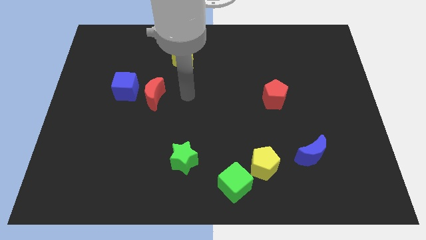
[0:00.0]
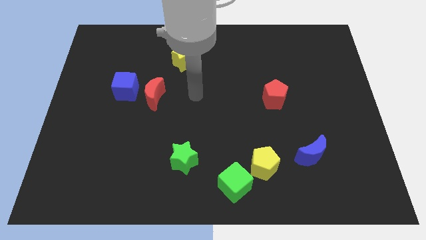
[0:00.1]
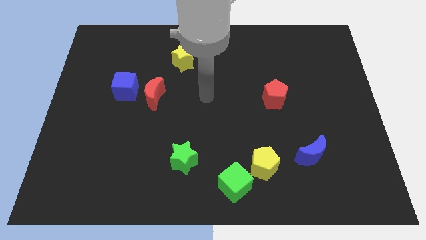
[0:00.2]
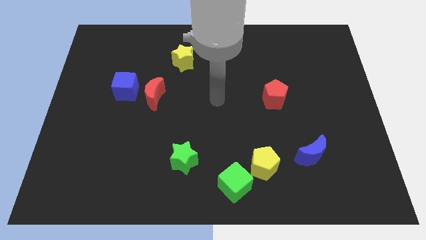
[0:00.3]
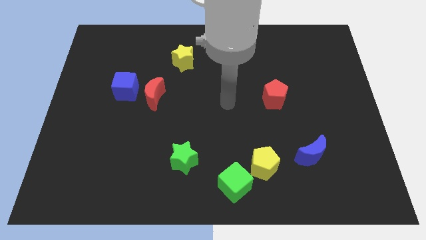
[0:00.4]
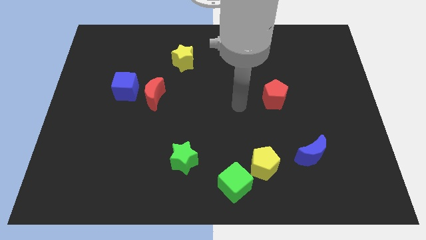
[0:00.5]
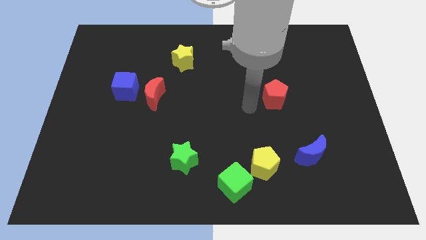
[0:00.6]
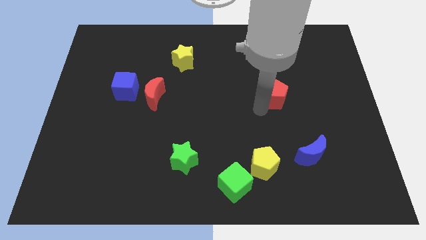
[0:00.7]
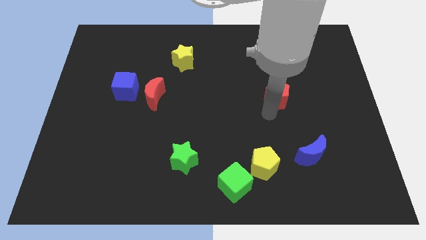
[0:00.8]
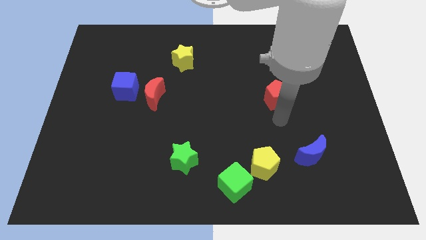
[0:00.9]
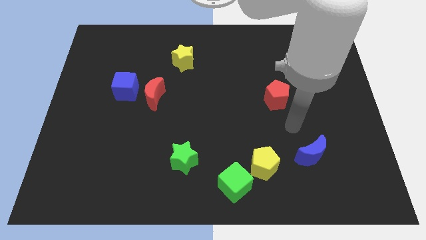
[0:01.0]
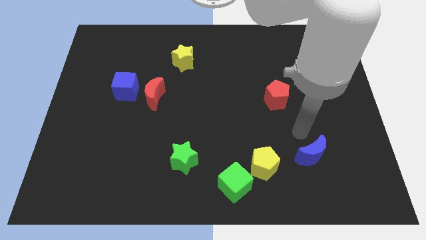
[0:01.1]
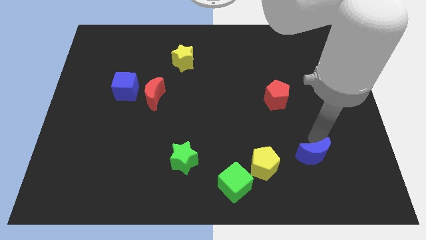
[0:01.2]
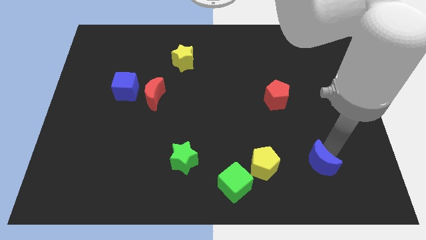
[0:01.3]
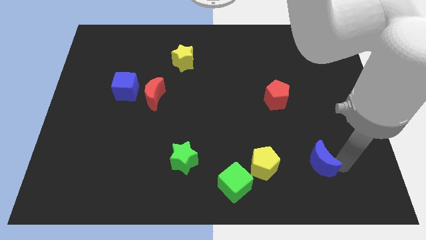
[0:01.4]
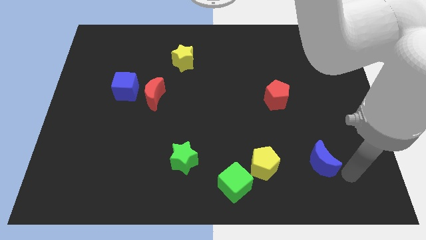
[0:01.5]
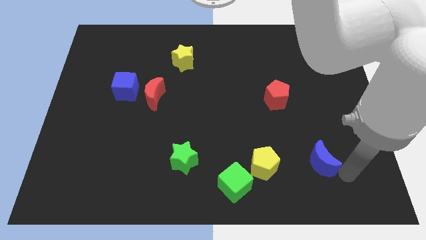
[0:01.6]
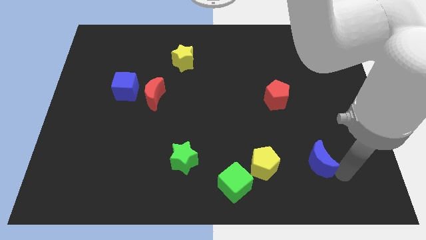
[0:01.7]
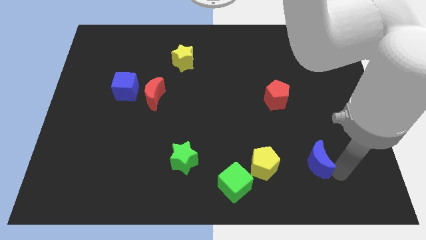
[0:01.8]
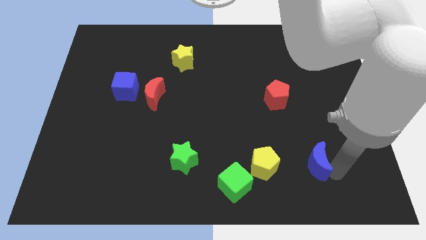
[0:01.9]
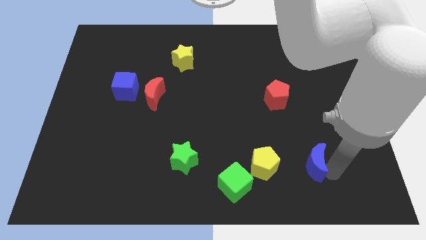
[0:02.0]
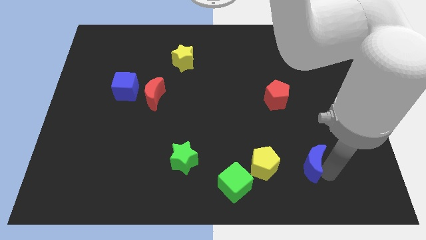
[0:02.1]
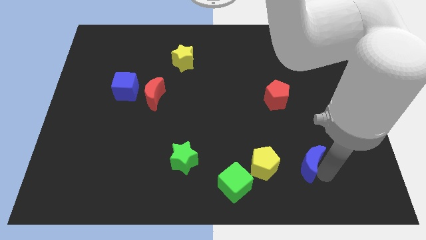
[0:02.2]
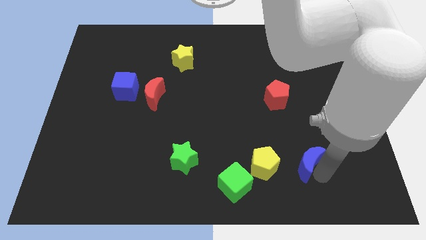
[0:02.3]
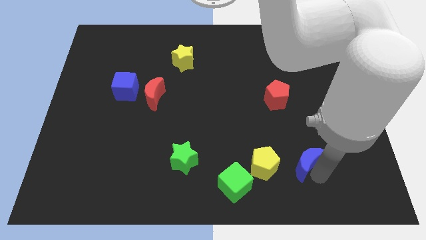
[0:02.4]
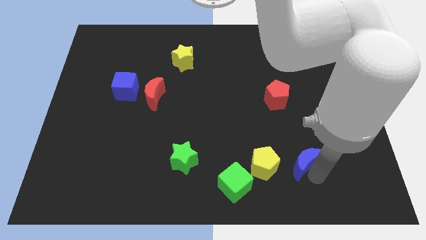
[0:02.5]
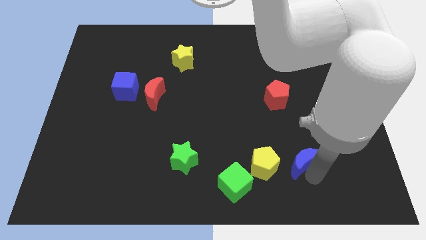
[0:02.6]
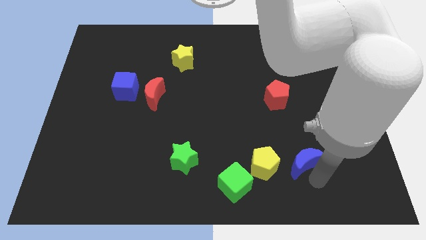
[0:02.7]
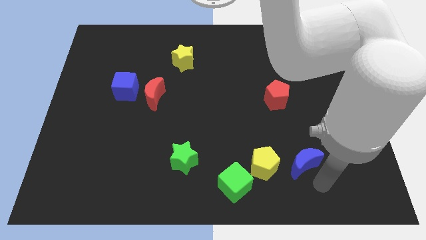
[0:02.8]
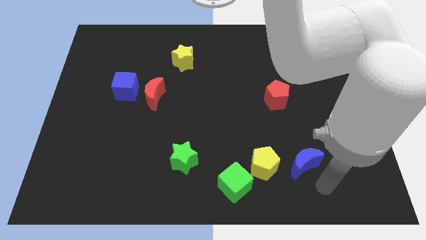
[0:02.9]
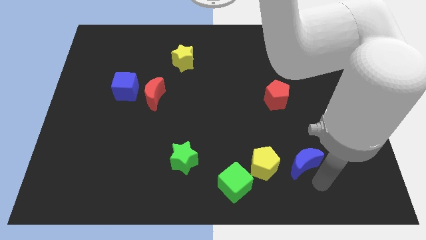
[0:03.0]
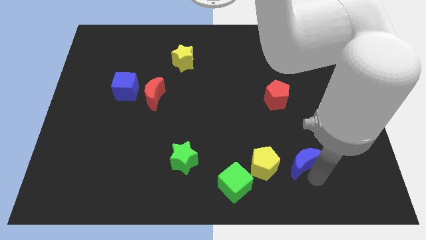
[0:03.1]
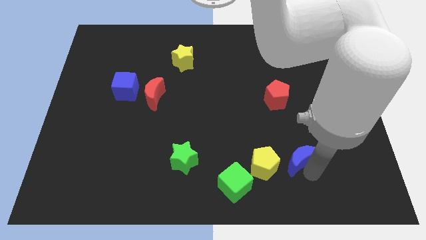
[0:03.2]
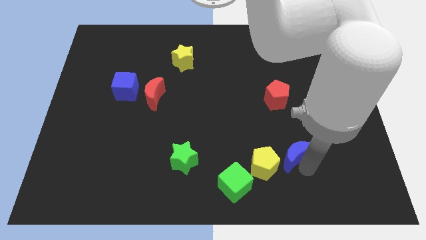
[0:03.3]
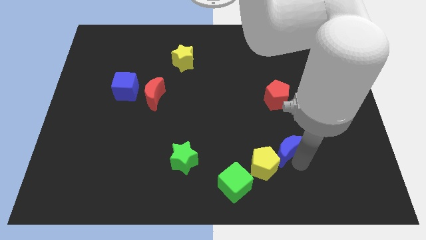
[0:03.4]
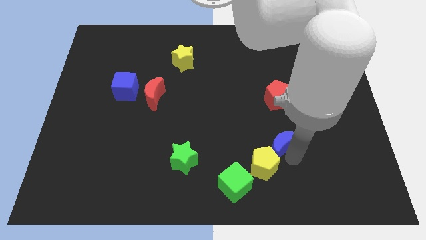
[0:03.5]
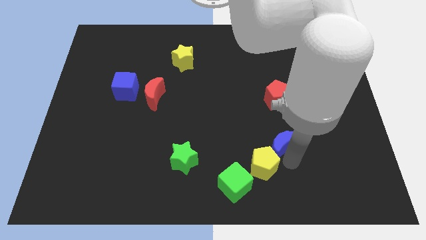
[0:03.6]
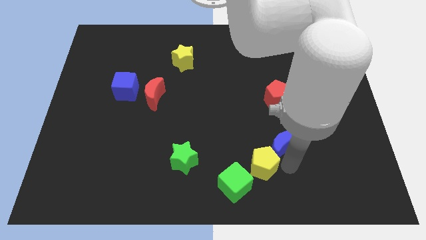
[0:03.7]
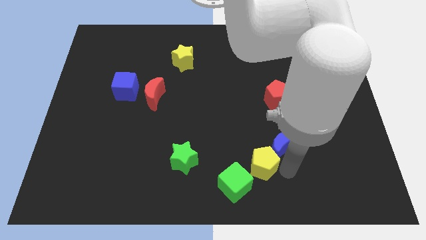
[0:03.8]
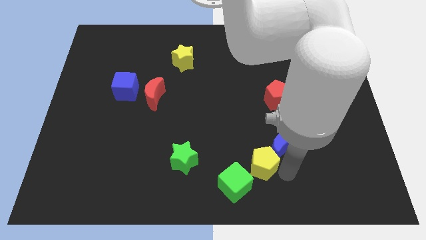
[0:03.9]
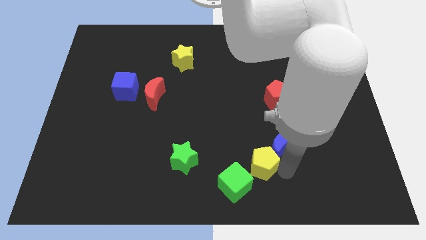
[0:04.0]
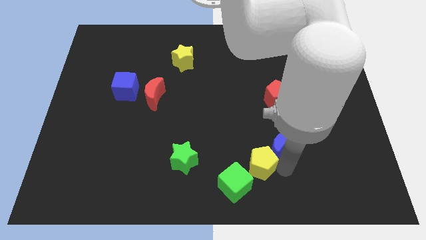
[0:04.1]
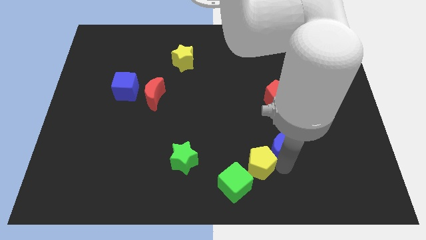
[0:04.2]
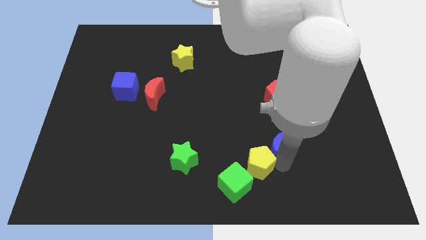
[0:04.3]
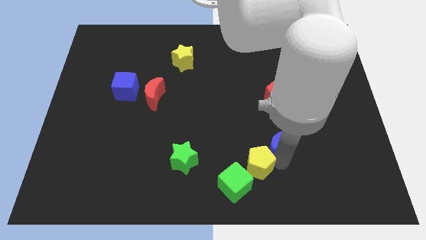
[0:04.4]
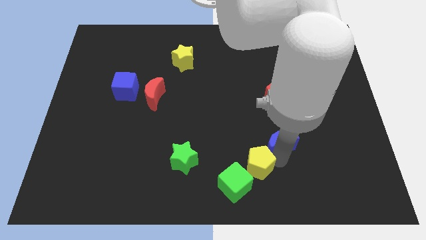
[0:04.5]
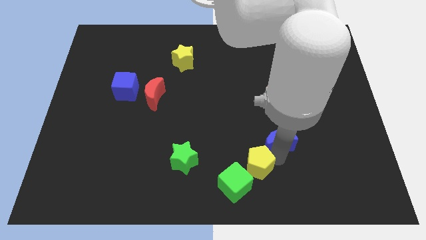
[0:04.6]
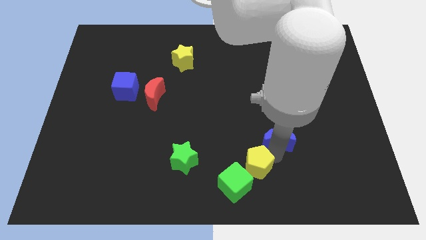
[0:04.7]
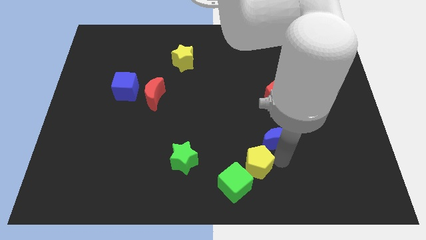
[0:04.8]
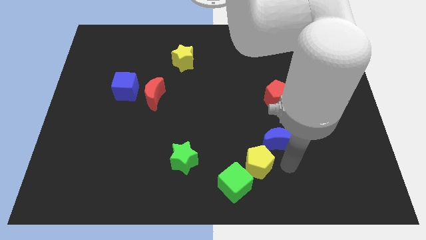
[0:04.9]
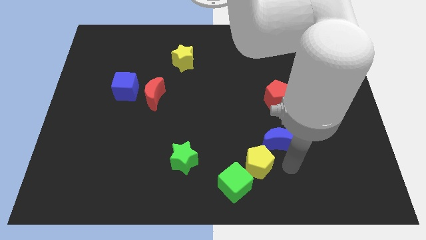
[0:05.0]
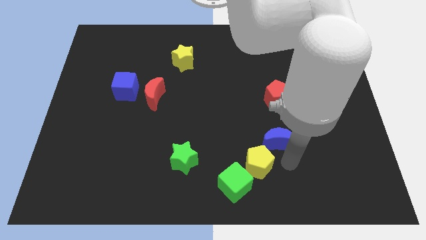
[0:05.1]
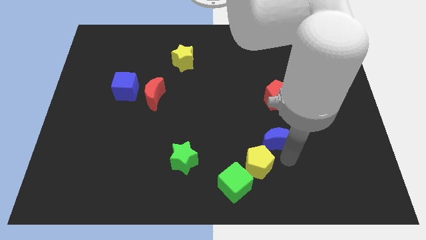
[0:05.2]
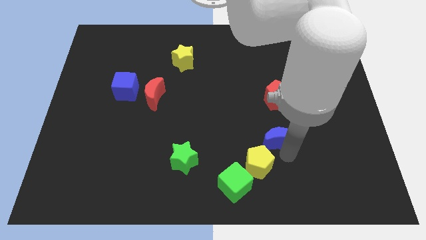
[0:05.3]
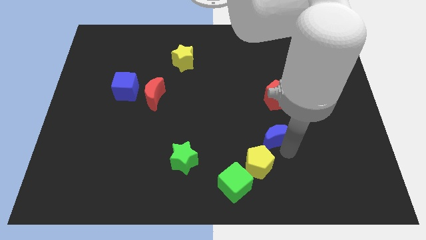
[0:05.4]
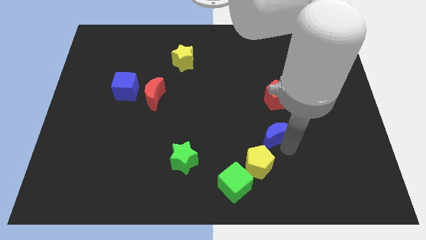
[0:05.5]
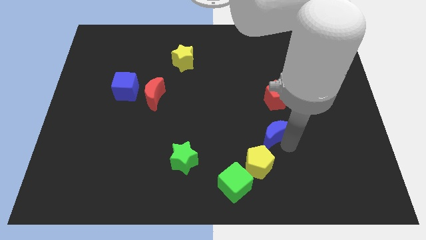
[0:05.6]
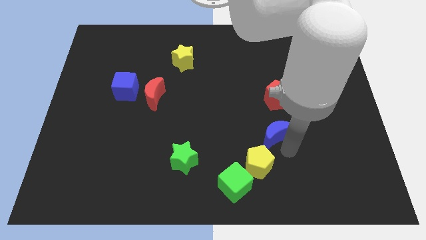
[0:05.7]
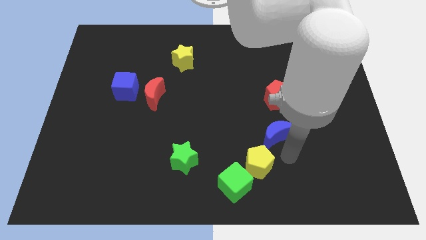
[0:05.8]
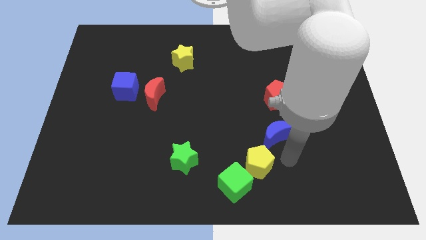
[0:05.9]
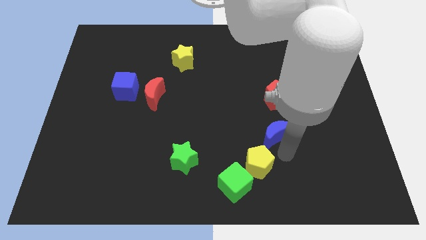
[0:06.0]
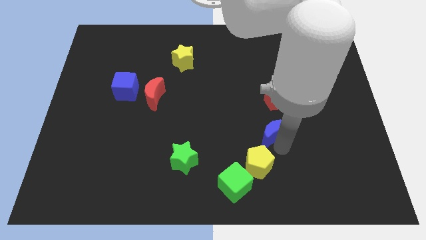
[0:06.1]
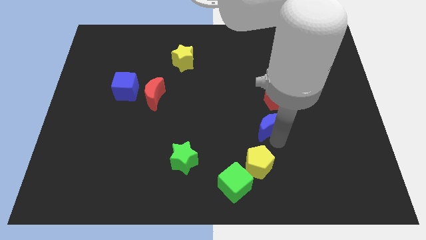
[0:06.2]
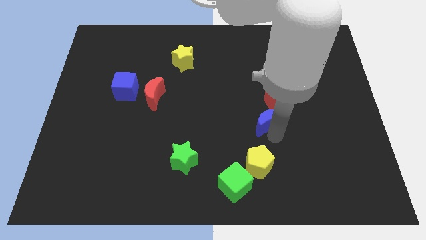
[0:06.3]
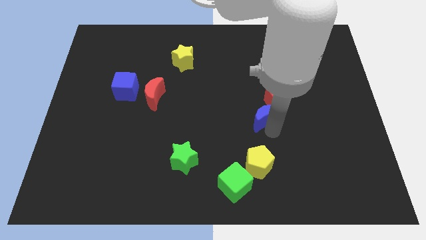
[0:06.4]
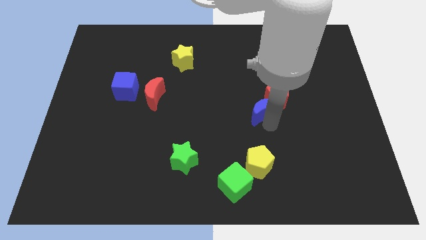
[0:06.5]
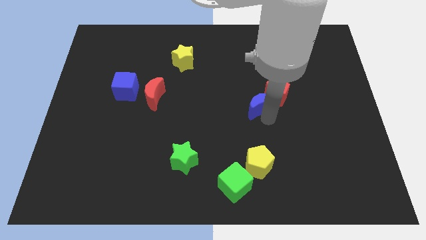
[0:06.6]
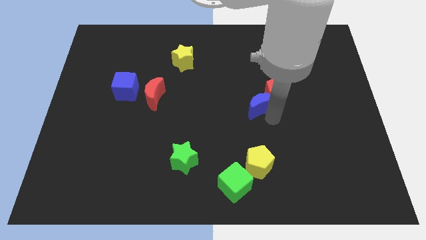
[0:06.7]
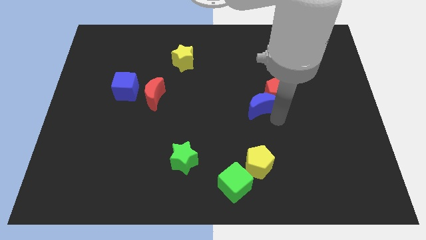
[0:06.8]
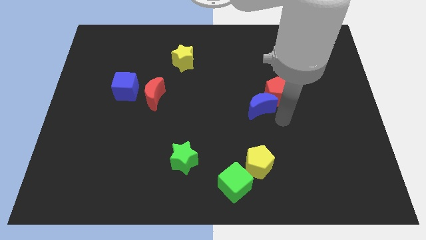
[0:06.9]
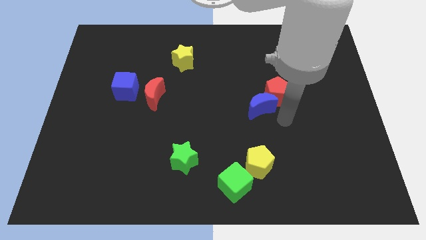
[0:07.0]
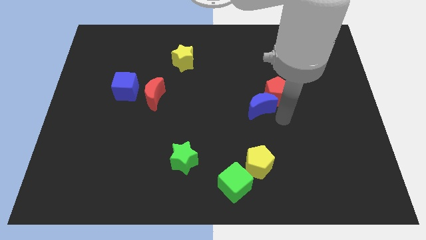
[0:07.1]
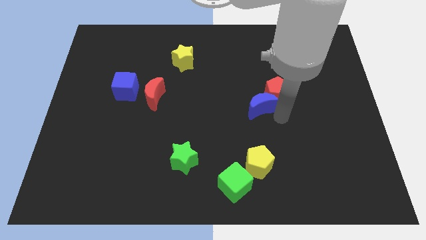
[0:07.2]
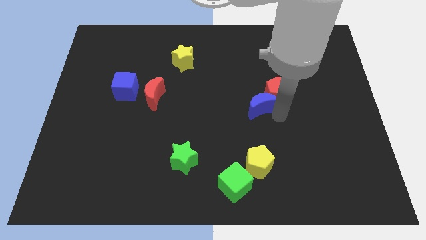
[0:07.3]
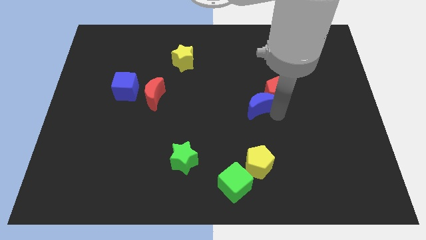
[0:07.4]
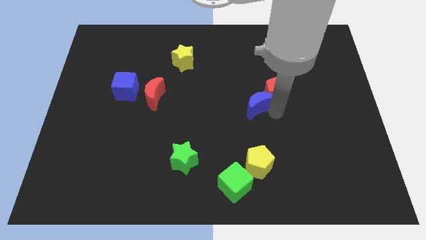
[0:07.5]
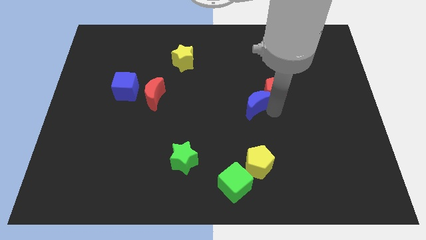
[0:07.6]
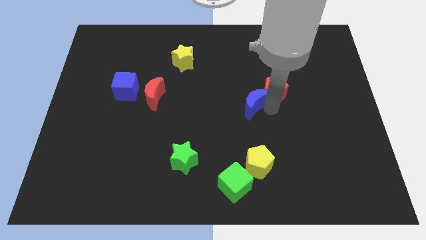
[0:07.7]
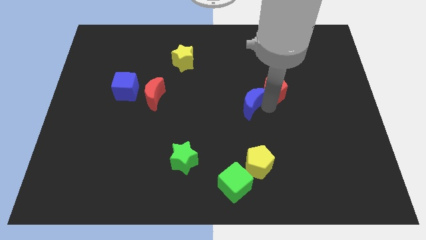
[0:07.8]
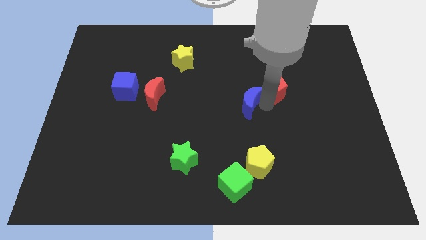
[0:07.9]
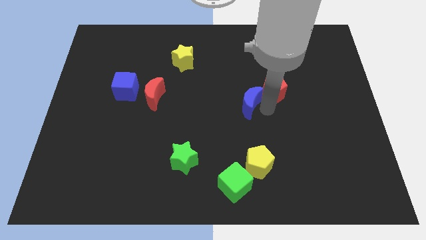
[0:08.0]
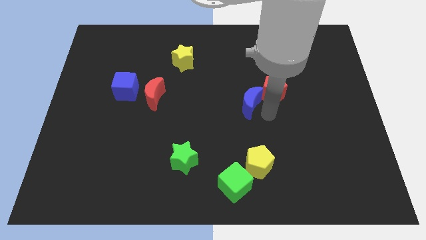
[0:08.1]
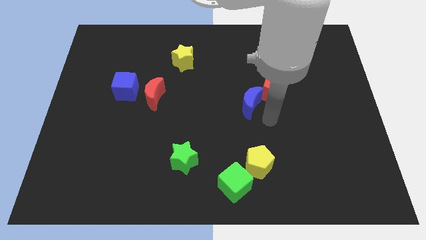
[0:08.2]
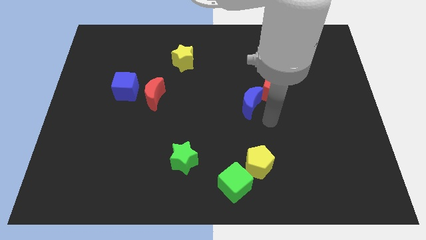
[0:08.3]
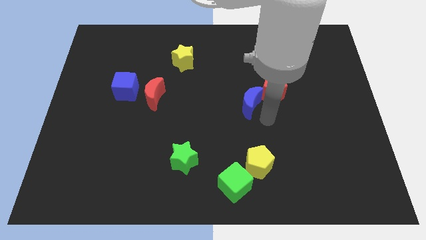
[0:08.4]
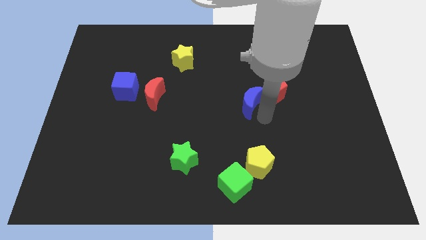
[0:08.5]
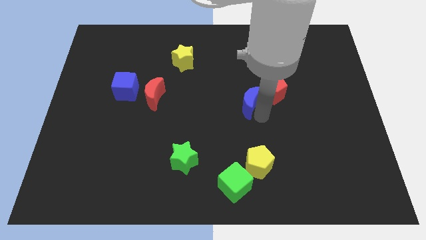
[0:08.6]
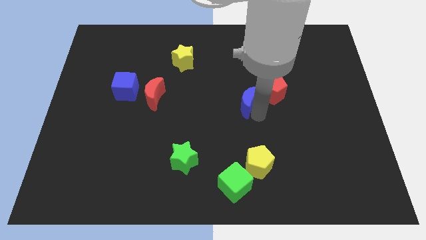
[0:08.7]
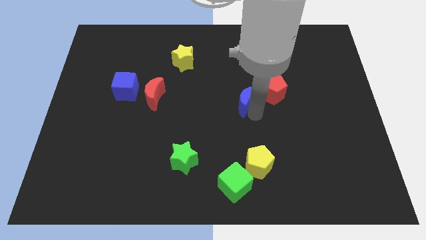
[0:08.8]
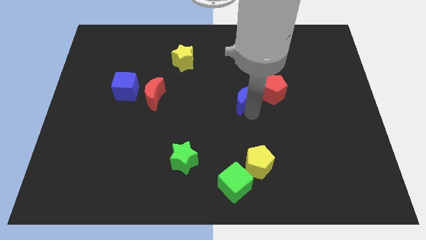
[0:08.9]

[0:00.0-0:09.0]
move the blue moon diagonally up and to the left
